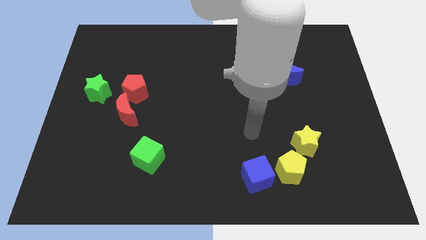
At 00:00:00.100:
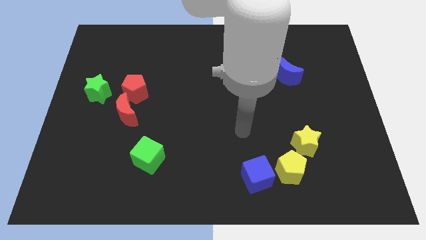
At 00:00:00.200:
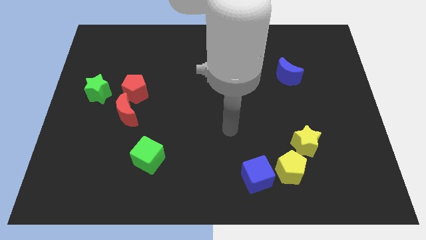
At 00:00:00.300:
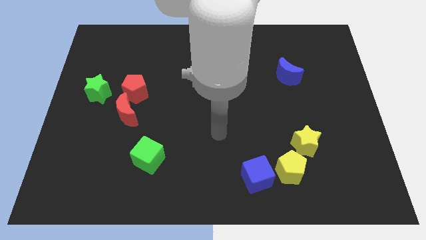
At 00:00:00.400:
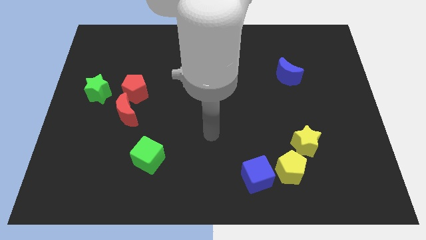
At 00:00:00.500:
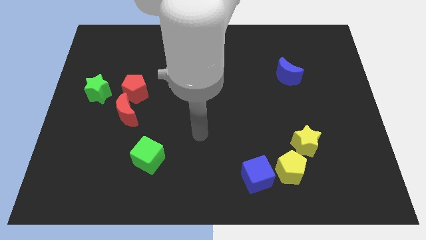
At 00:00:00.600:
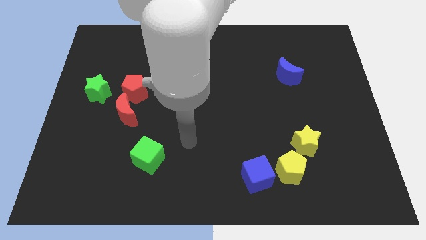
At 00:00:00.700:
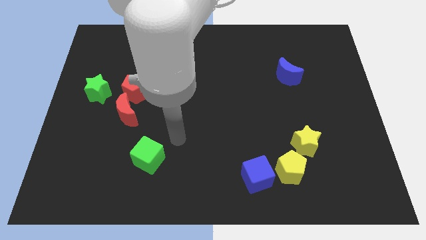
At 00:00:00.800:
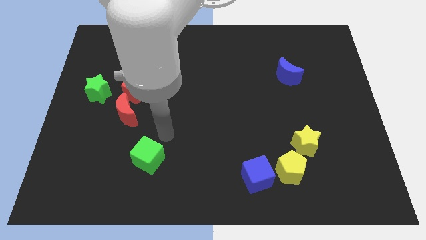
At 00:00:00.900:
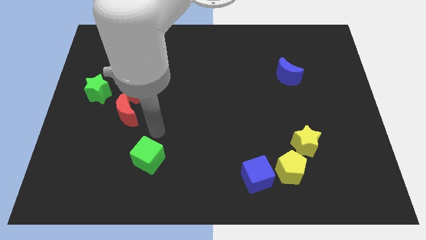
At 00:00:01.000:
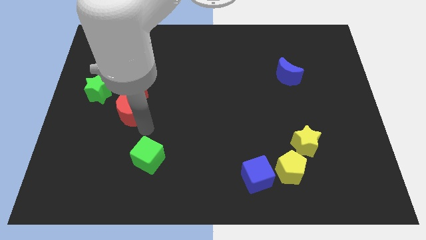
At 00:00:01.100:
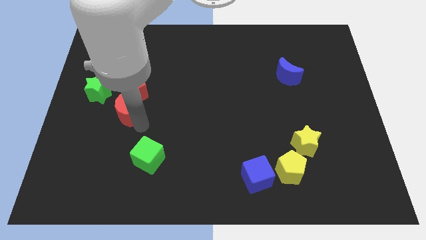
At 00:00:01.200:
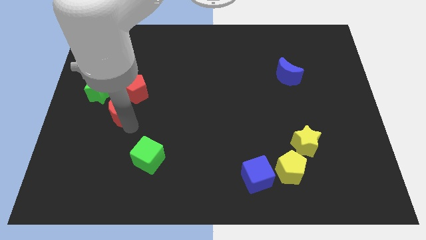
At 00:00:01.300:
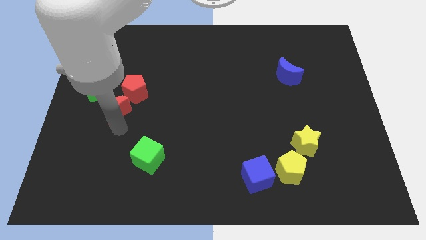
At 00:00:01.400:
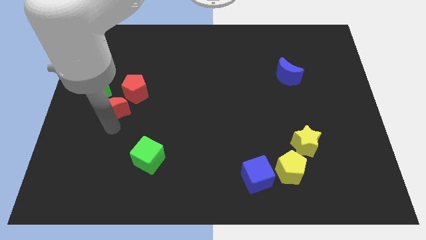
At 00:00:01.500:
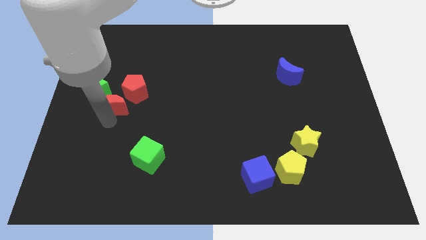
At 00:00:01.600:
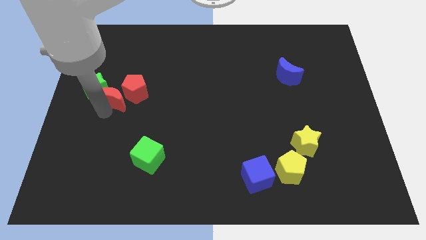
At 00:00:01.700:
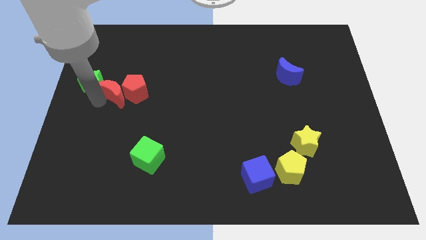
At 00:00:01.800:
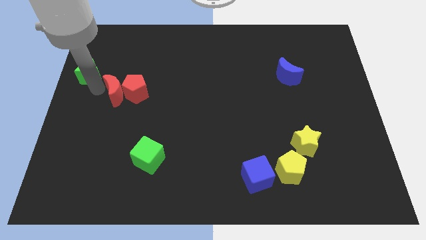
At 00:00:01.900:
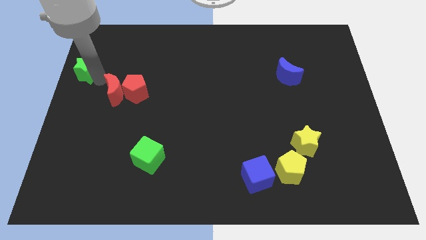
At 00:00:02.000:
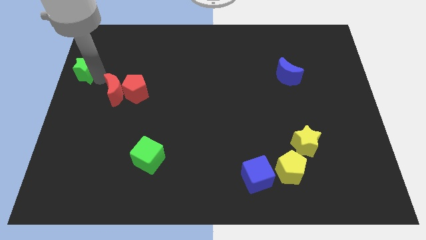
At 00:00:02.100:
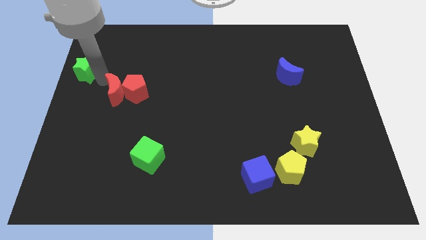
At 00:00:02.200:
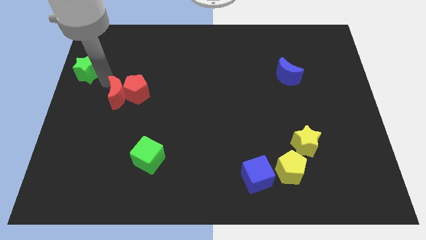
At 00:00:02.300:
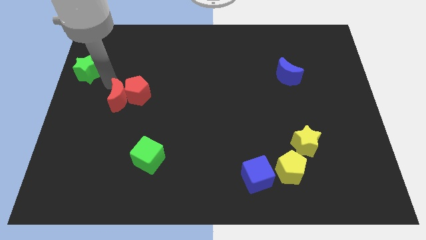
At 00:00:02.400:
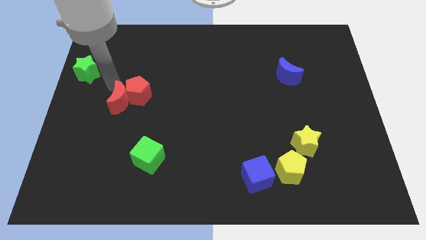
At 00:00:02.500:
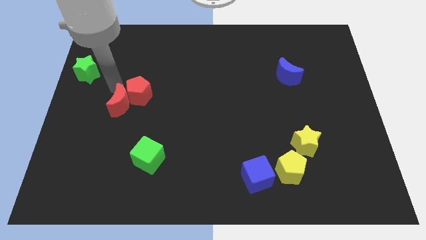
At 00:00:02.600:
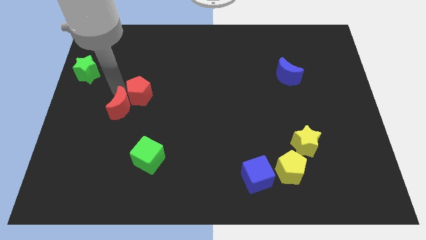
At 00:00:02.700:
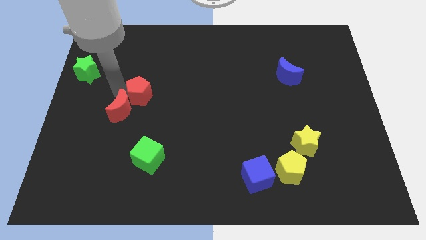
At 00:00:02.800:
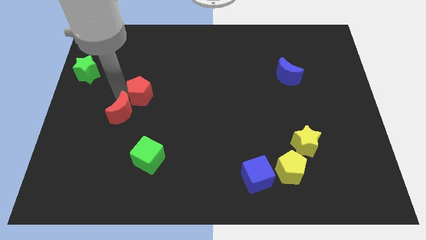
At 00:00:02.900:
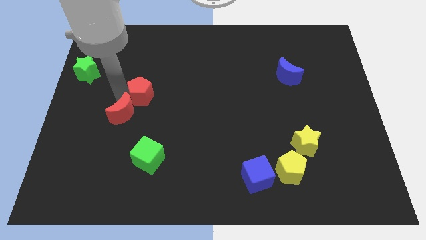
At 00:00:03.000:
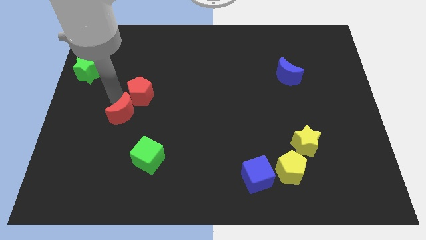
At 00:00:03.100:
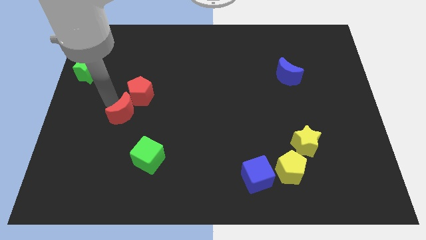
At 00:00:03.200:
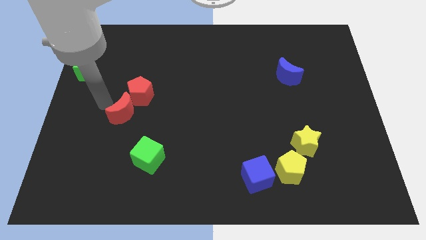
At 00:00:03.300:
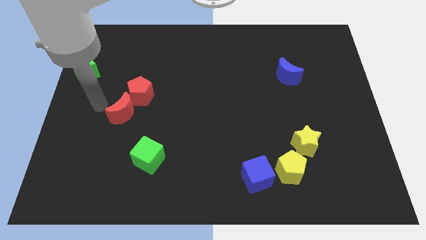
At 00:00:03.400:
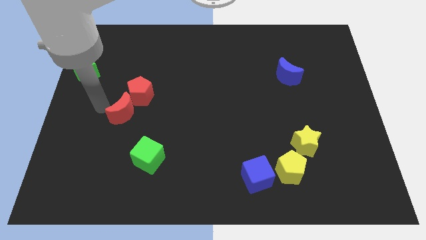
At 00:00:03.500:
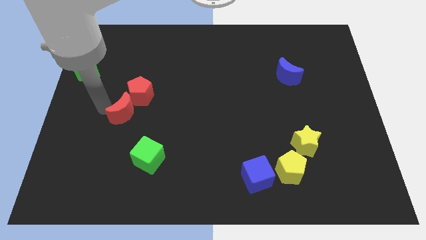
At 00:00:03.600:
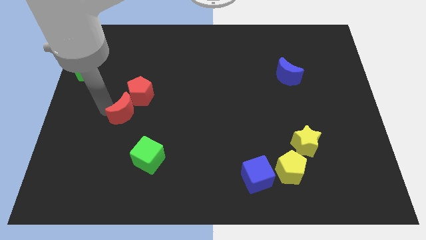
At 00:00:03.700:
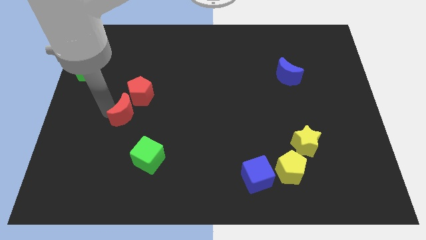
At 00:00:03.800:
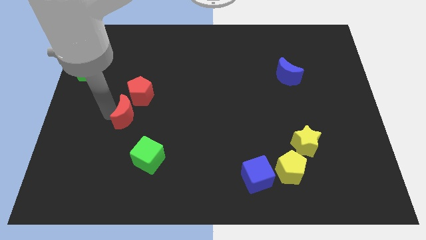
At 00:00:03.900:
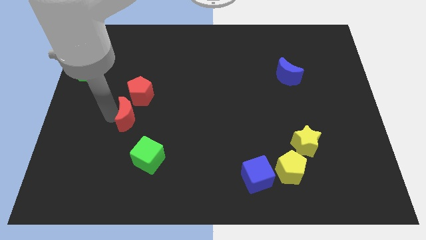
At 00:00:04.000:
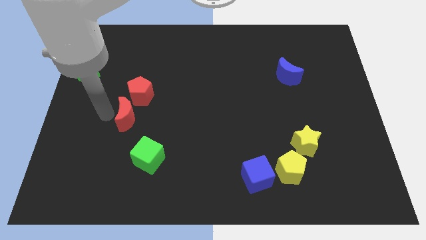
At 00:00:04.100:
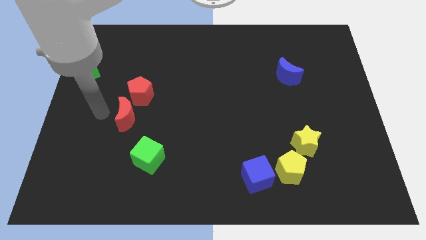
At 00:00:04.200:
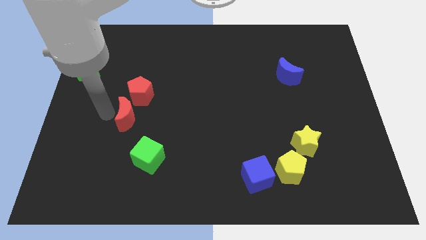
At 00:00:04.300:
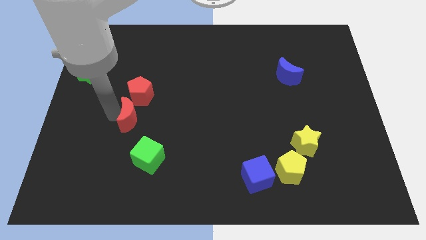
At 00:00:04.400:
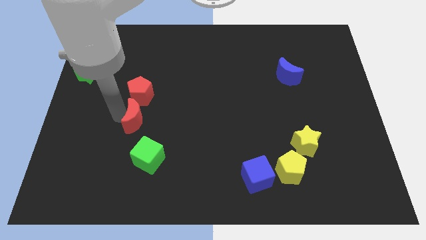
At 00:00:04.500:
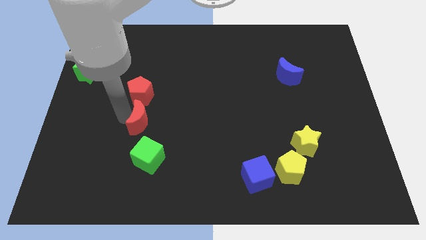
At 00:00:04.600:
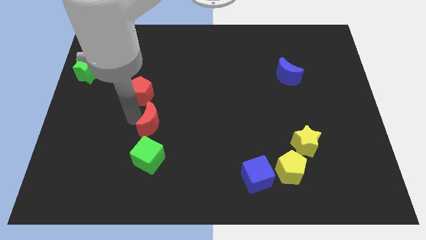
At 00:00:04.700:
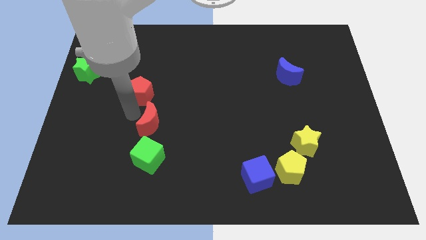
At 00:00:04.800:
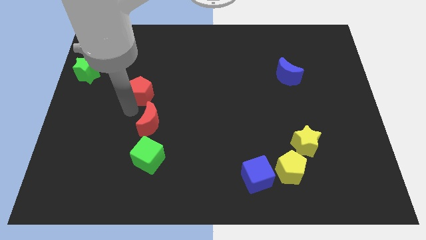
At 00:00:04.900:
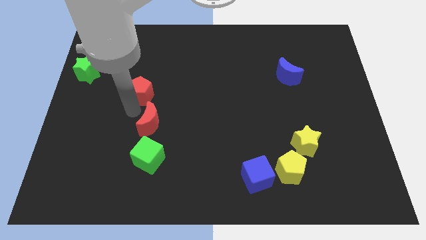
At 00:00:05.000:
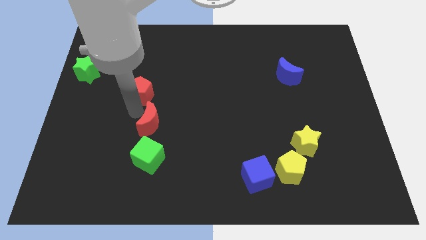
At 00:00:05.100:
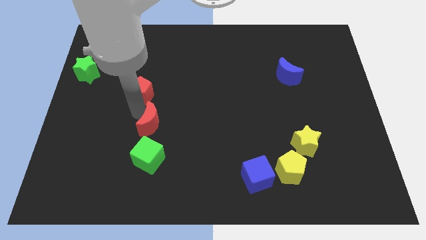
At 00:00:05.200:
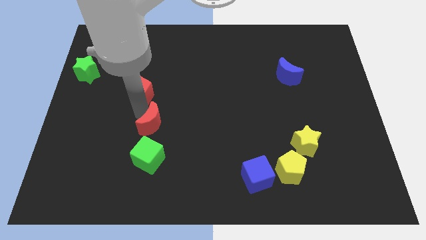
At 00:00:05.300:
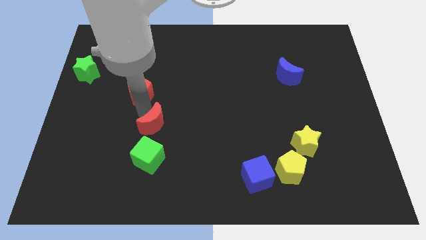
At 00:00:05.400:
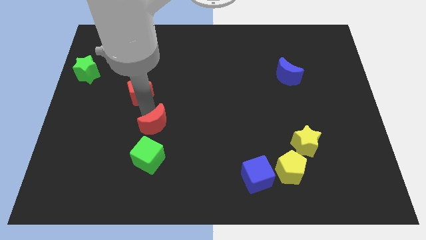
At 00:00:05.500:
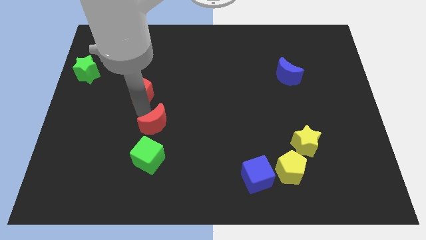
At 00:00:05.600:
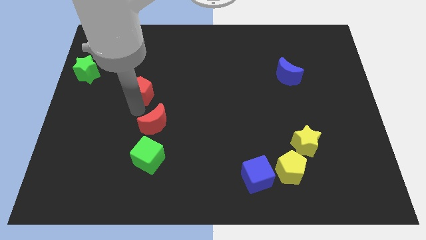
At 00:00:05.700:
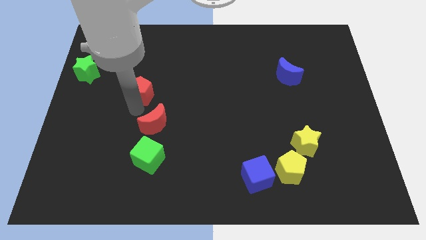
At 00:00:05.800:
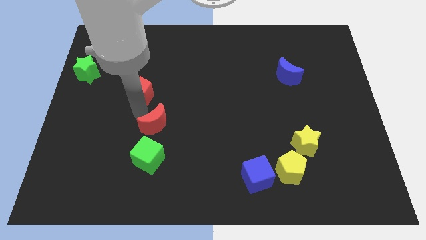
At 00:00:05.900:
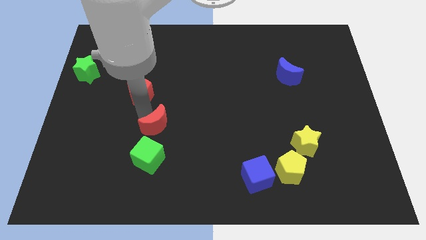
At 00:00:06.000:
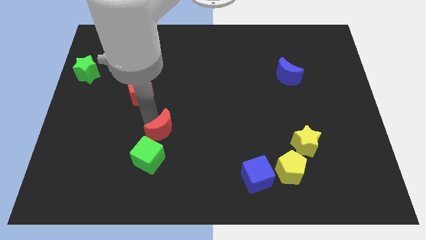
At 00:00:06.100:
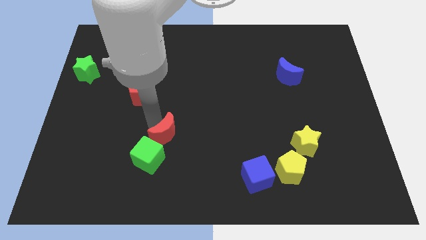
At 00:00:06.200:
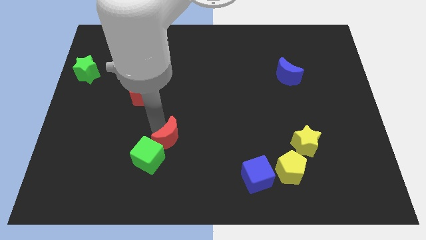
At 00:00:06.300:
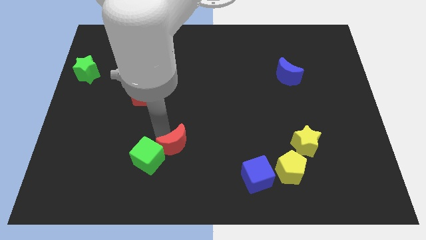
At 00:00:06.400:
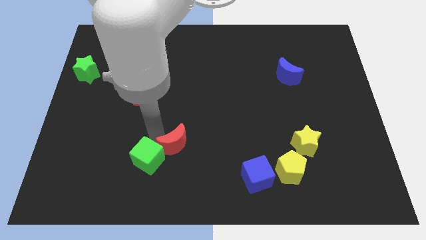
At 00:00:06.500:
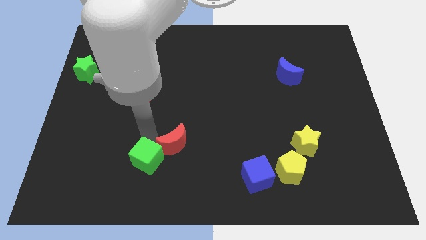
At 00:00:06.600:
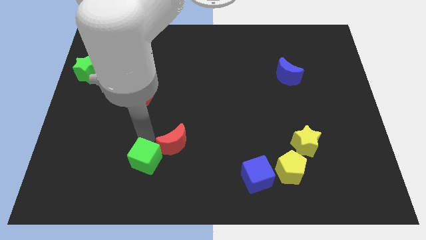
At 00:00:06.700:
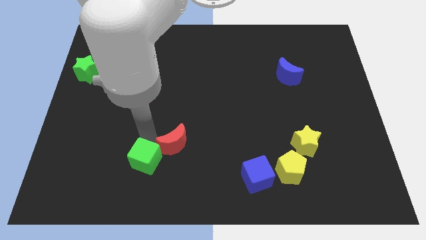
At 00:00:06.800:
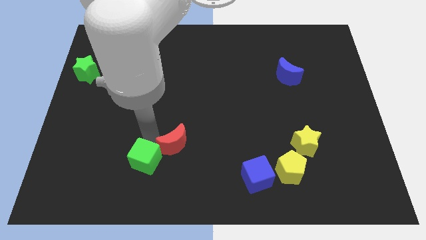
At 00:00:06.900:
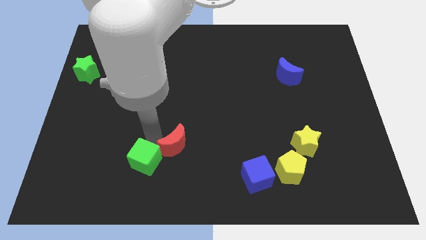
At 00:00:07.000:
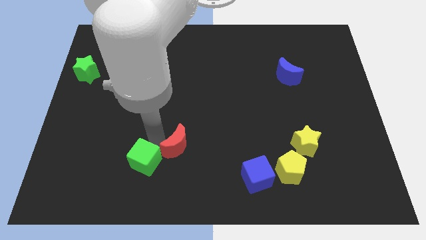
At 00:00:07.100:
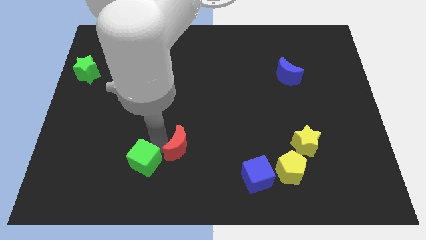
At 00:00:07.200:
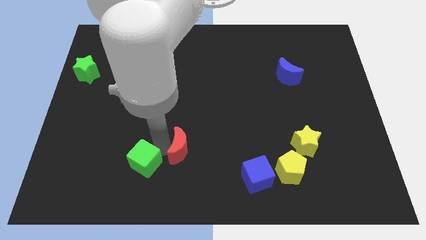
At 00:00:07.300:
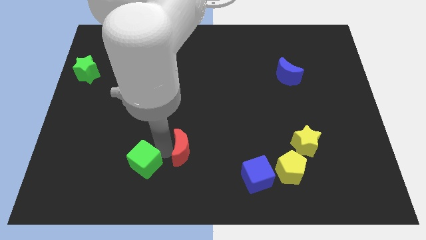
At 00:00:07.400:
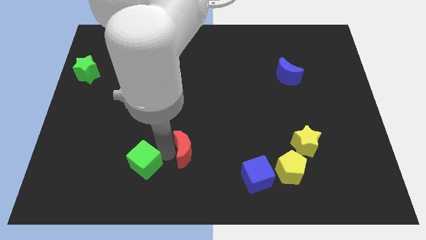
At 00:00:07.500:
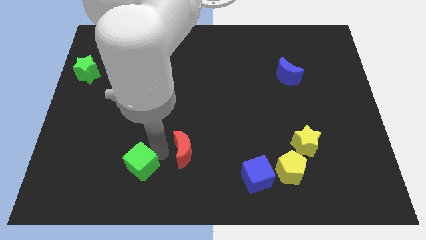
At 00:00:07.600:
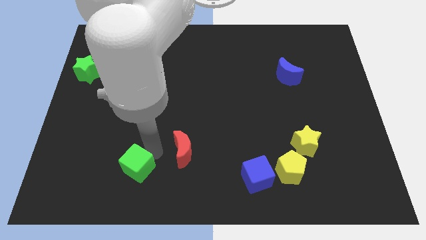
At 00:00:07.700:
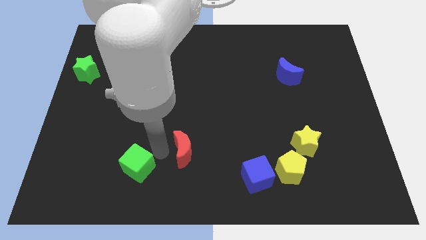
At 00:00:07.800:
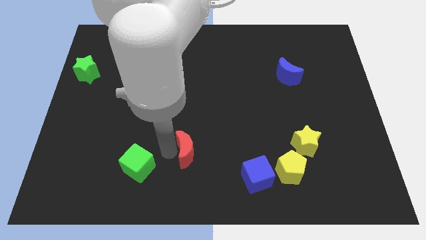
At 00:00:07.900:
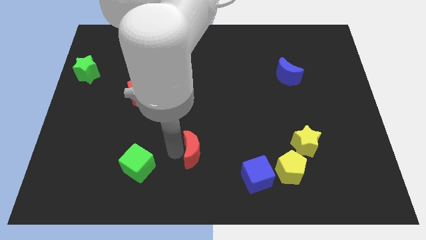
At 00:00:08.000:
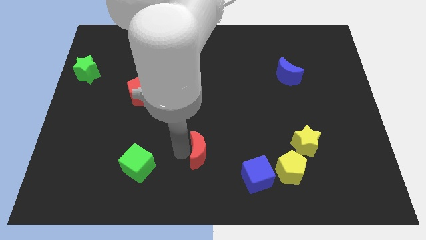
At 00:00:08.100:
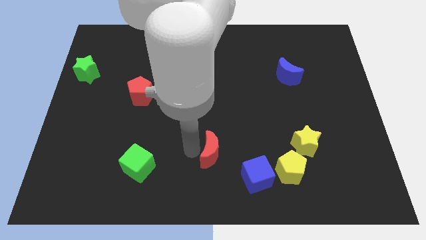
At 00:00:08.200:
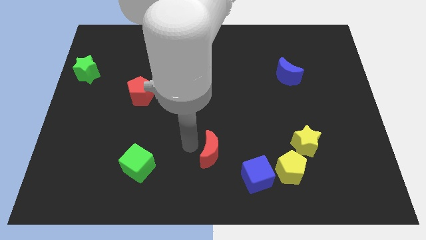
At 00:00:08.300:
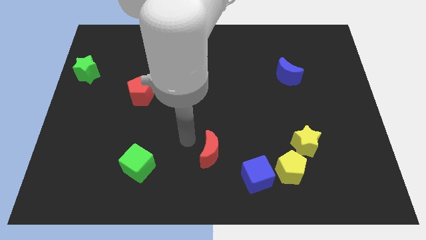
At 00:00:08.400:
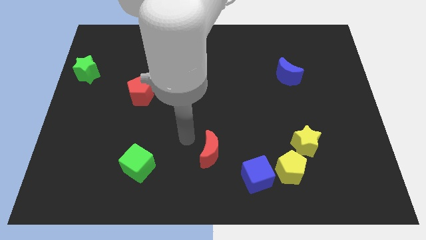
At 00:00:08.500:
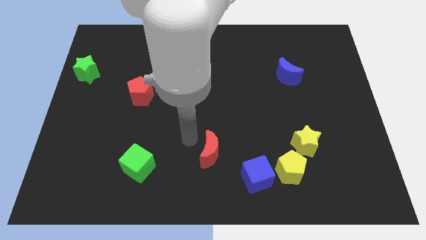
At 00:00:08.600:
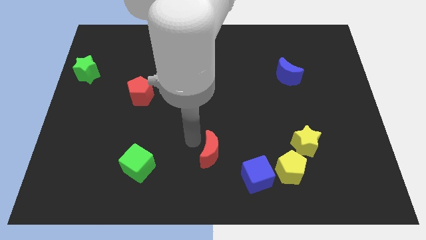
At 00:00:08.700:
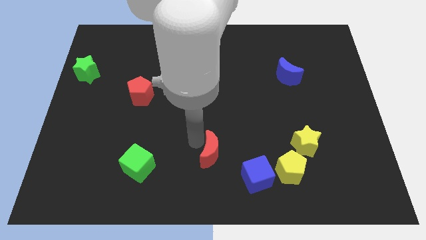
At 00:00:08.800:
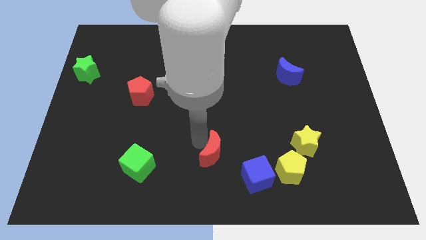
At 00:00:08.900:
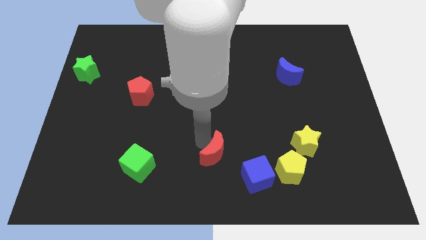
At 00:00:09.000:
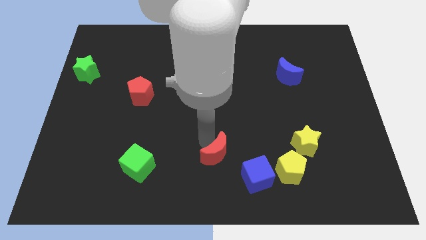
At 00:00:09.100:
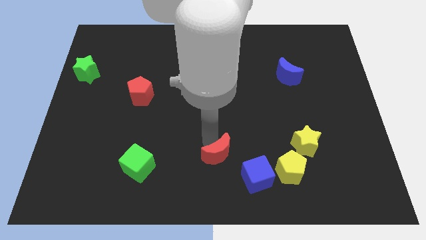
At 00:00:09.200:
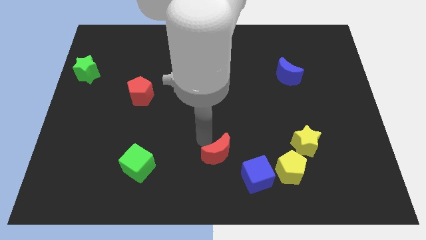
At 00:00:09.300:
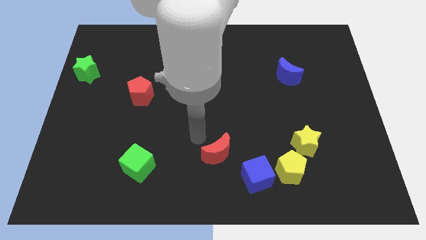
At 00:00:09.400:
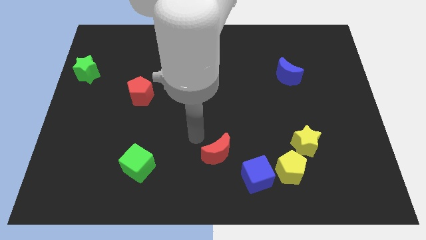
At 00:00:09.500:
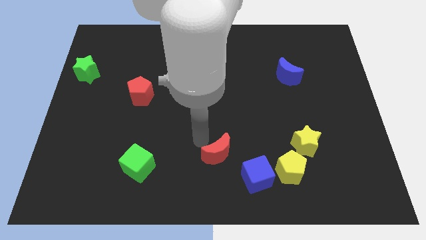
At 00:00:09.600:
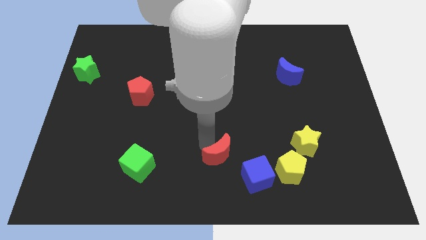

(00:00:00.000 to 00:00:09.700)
push the red moon just left of the yellow pentagon
